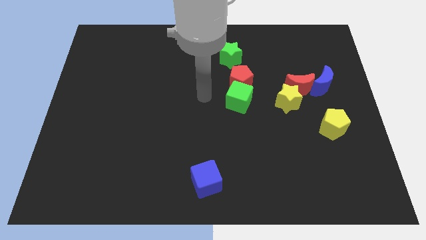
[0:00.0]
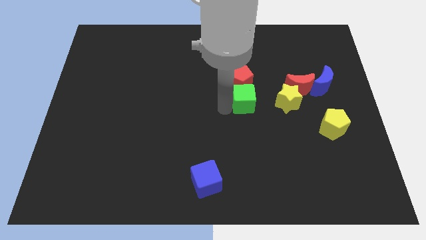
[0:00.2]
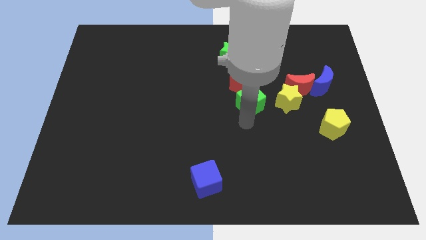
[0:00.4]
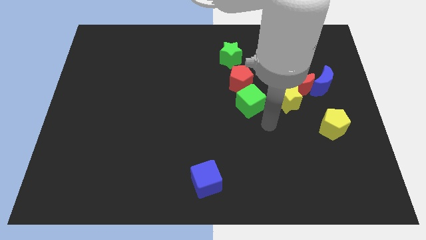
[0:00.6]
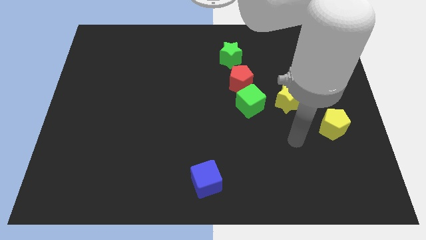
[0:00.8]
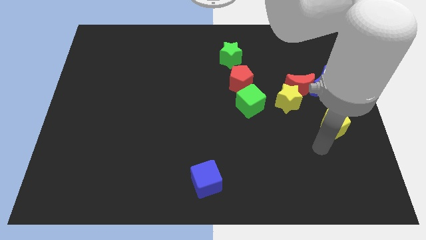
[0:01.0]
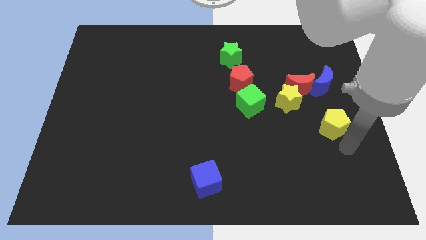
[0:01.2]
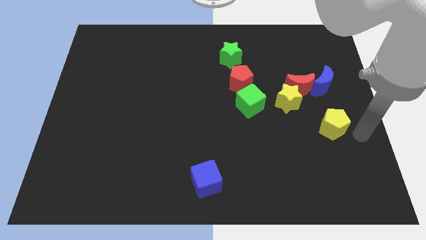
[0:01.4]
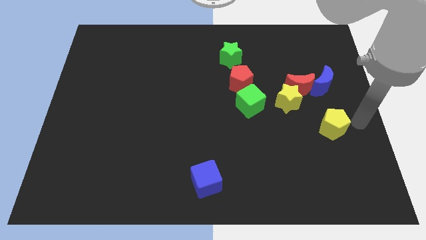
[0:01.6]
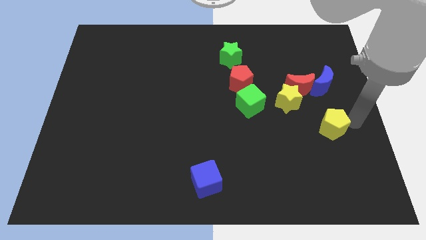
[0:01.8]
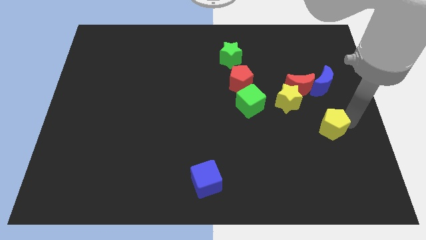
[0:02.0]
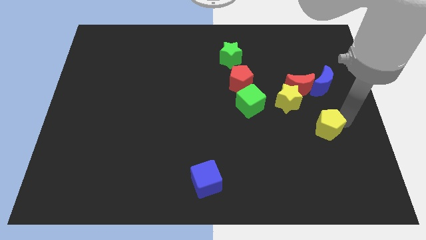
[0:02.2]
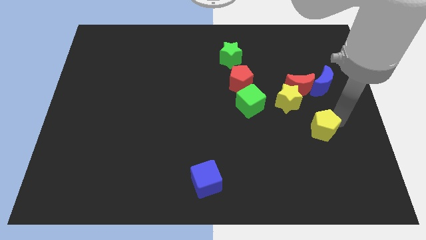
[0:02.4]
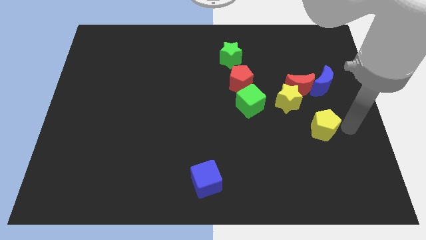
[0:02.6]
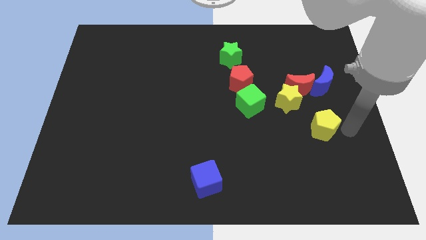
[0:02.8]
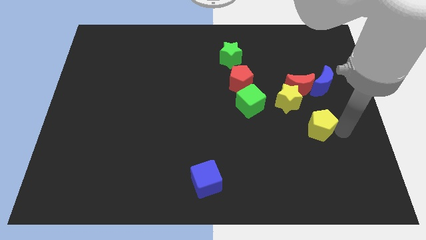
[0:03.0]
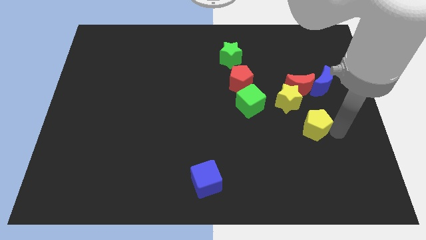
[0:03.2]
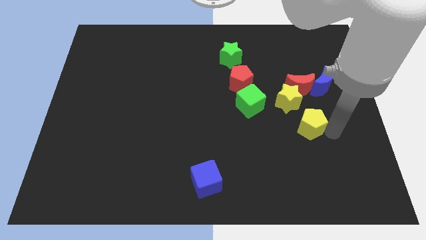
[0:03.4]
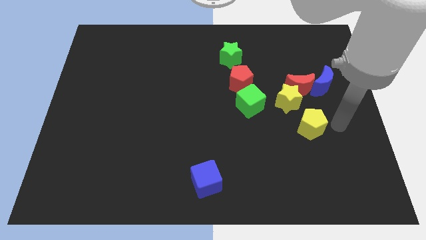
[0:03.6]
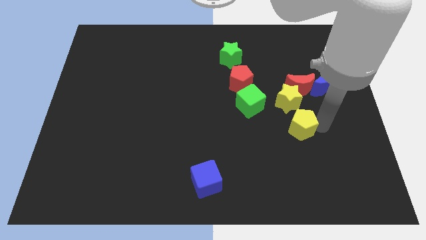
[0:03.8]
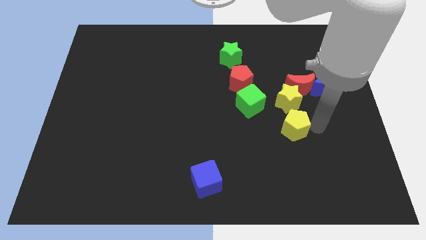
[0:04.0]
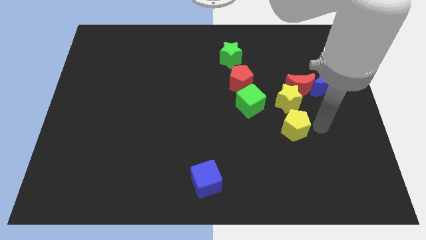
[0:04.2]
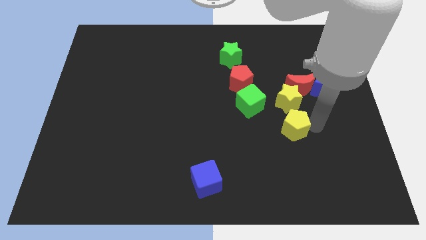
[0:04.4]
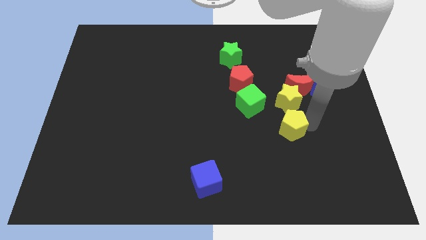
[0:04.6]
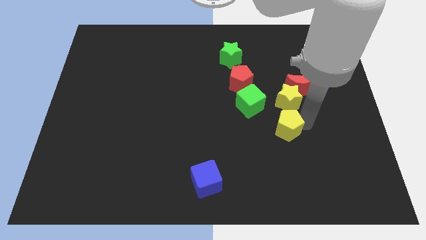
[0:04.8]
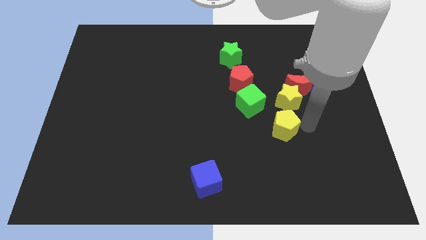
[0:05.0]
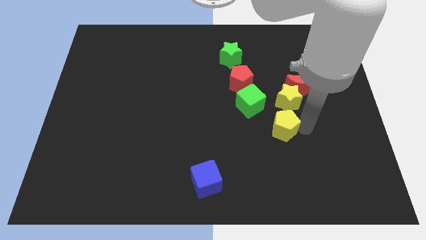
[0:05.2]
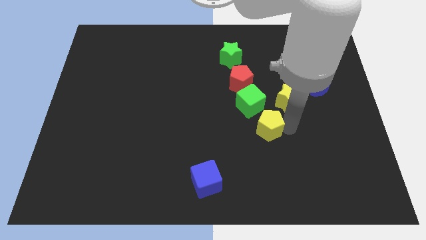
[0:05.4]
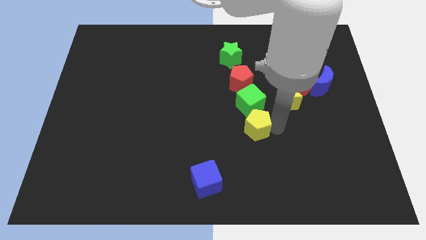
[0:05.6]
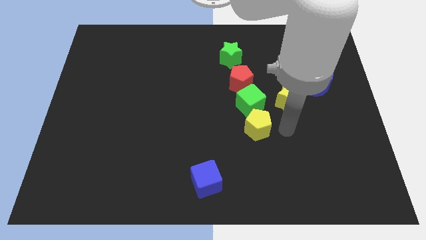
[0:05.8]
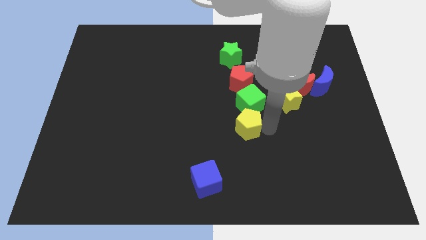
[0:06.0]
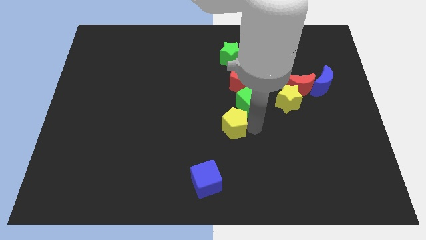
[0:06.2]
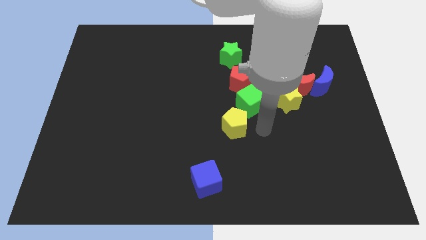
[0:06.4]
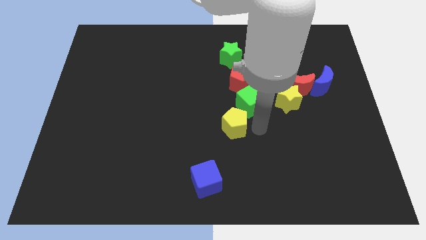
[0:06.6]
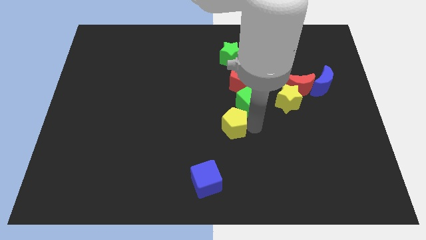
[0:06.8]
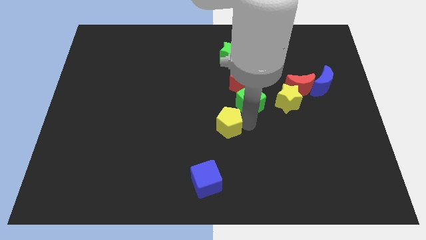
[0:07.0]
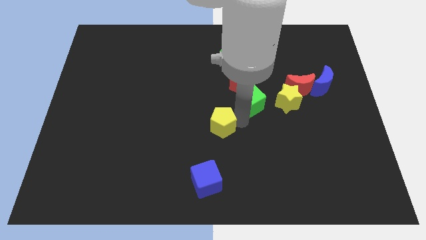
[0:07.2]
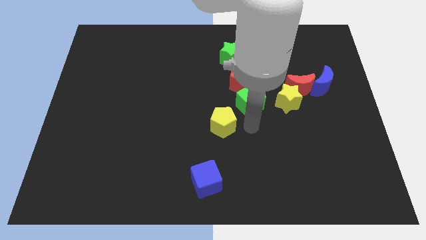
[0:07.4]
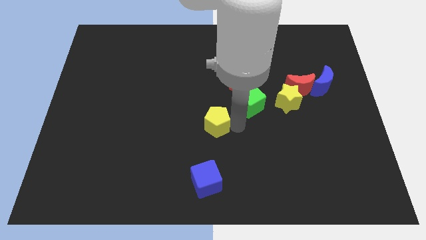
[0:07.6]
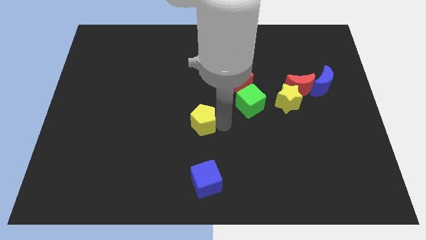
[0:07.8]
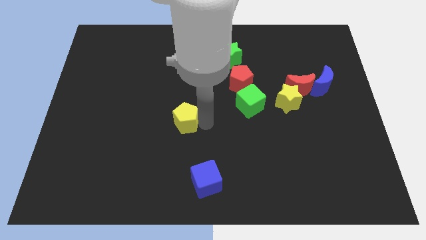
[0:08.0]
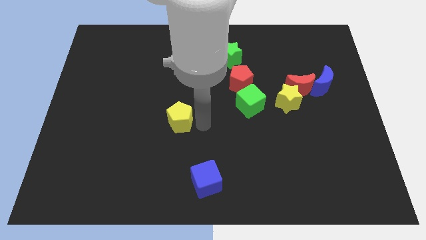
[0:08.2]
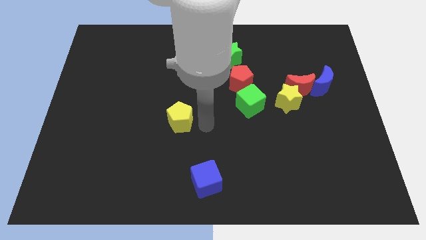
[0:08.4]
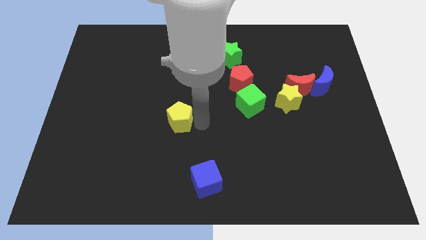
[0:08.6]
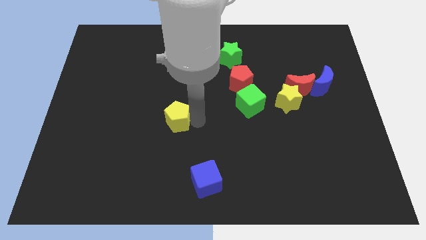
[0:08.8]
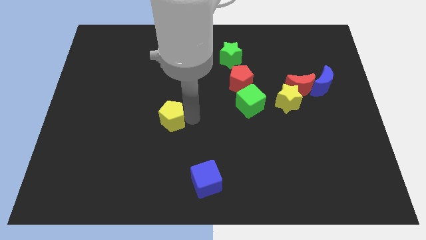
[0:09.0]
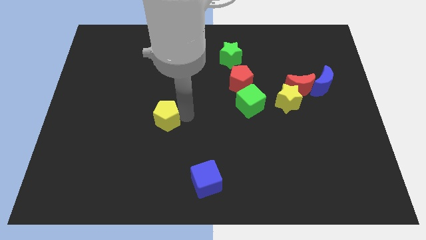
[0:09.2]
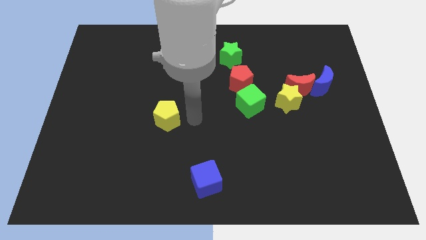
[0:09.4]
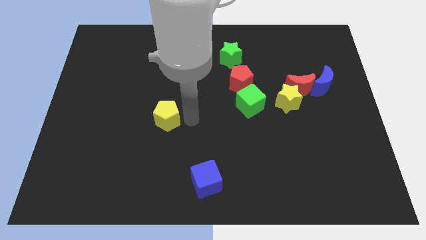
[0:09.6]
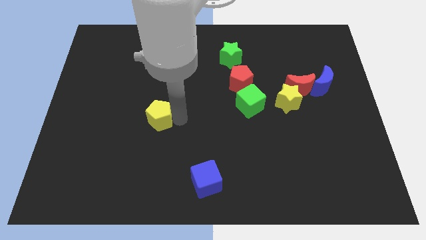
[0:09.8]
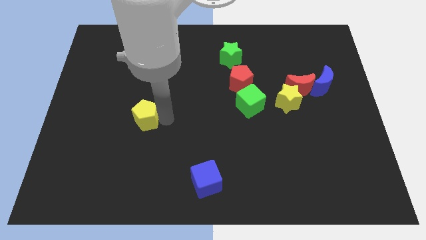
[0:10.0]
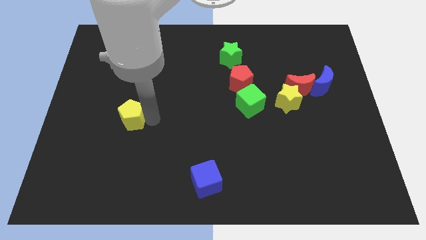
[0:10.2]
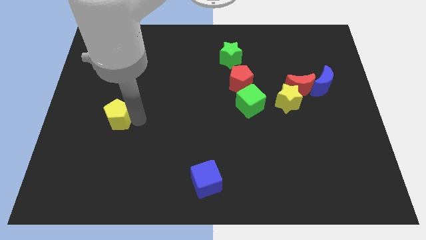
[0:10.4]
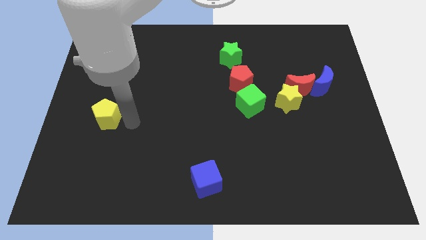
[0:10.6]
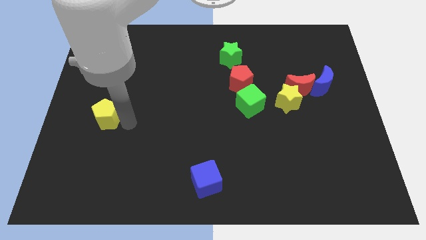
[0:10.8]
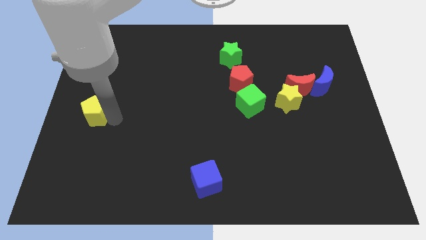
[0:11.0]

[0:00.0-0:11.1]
slide the yellow pentagon to the center left

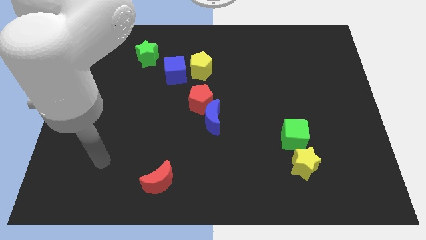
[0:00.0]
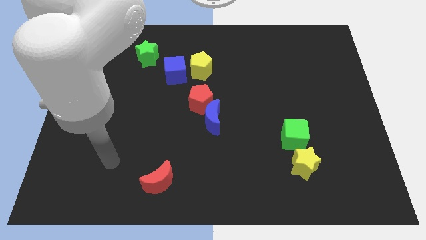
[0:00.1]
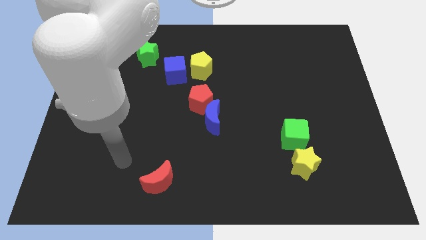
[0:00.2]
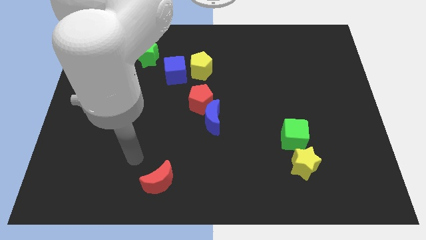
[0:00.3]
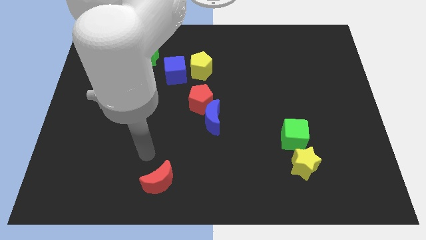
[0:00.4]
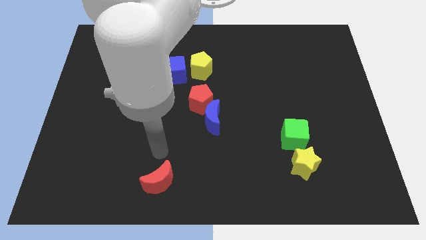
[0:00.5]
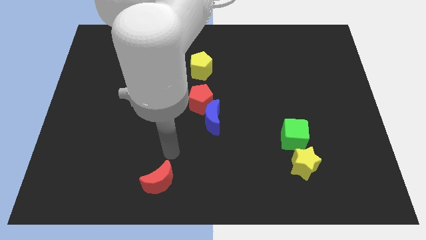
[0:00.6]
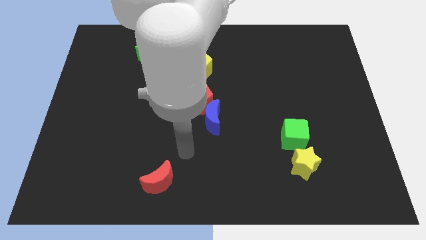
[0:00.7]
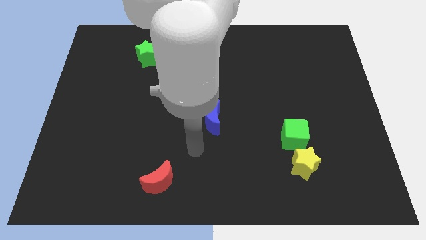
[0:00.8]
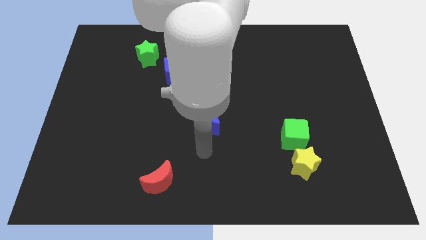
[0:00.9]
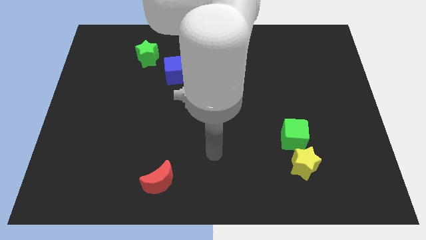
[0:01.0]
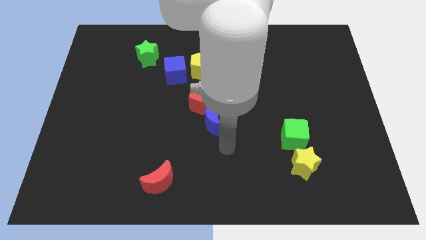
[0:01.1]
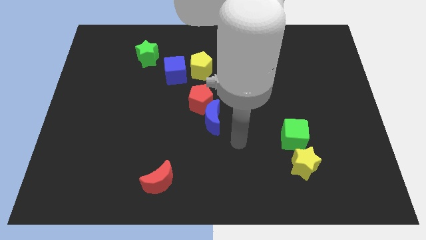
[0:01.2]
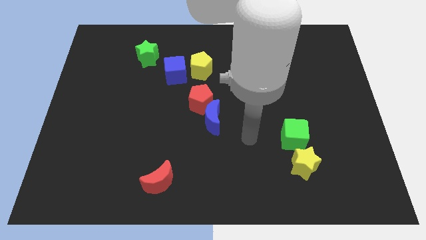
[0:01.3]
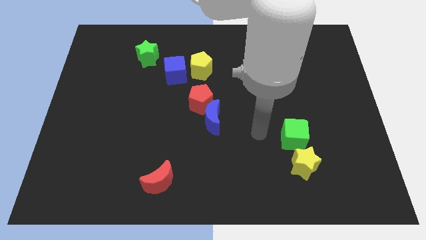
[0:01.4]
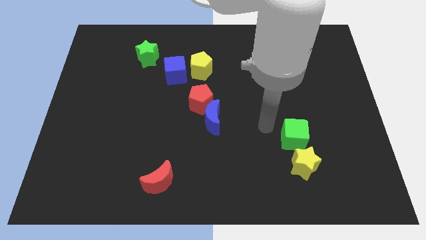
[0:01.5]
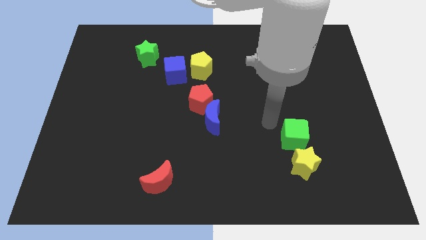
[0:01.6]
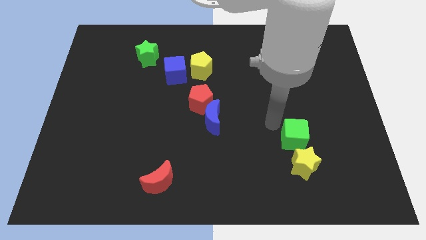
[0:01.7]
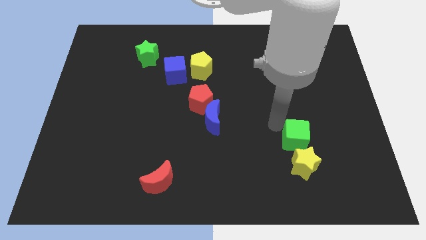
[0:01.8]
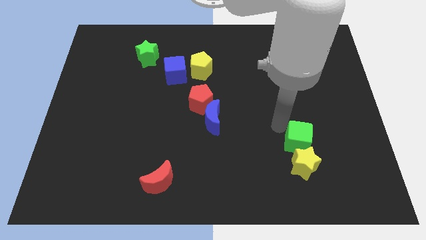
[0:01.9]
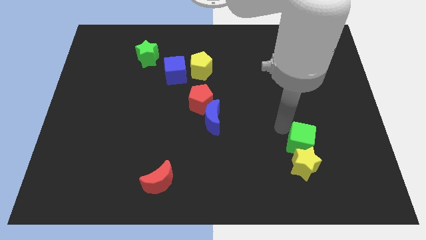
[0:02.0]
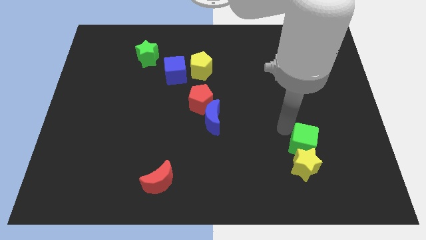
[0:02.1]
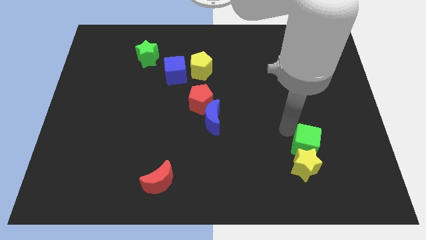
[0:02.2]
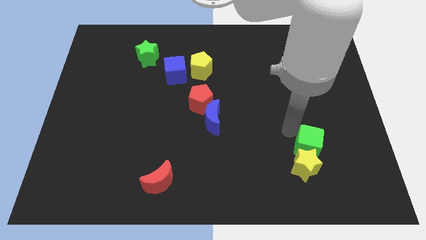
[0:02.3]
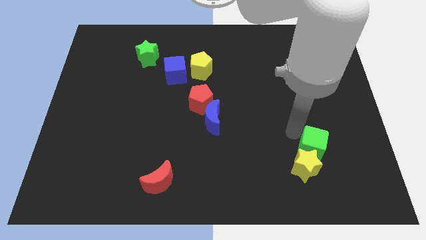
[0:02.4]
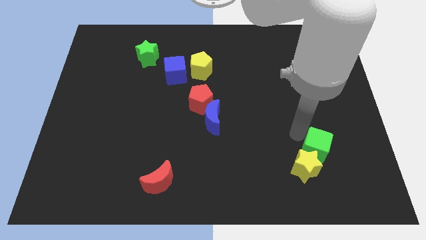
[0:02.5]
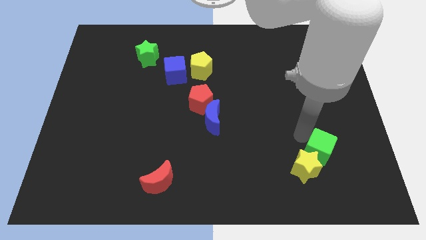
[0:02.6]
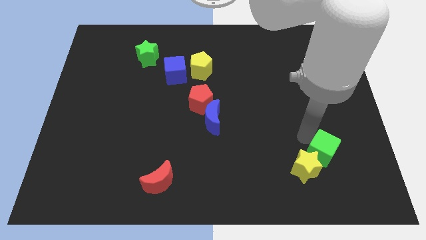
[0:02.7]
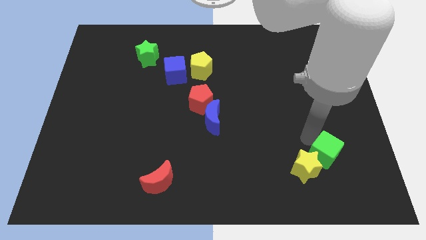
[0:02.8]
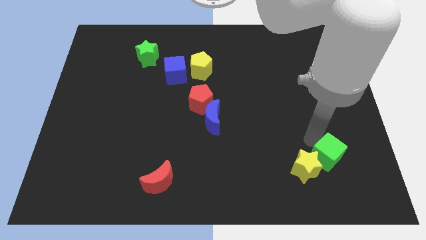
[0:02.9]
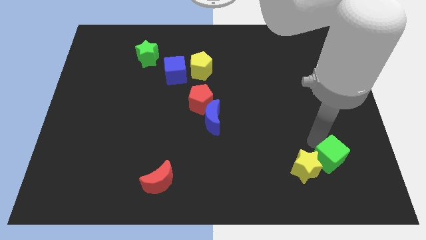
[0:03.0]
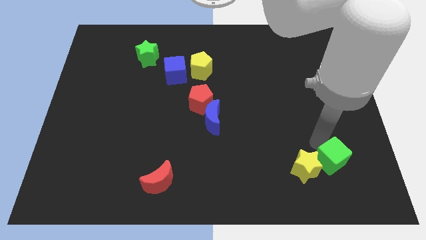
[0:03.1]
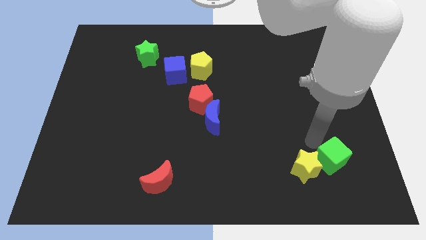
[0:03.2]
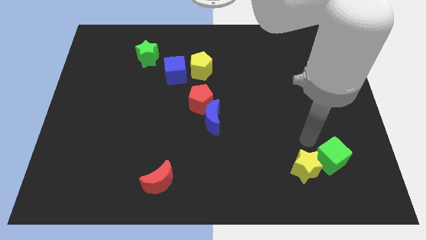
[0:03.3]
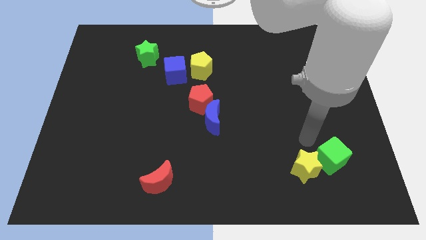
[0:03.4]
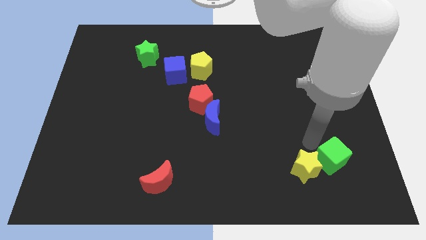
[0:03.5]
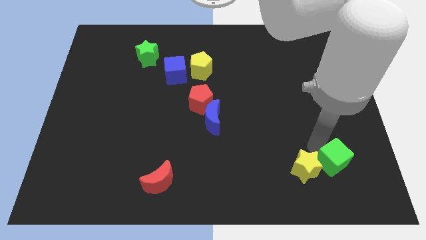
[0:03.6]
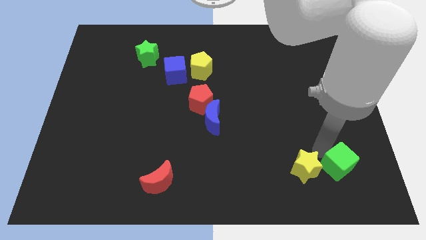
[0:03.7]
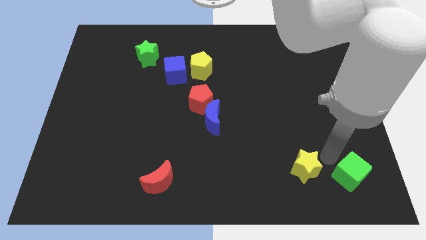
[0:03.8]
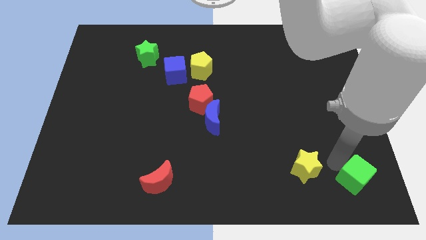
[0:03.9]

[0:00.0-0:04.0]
move the green cube to the lower right corner
